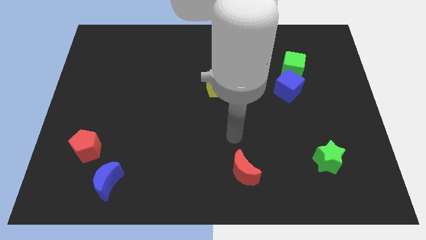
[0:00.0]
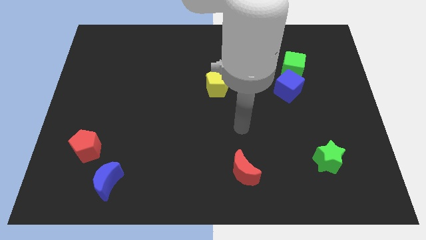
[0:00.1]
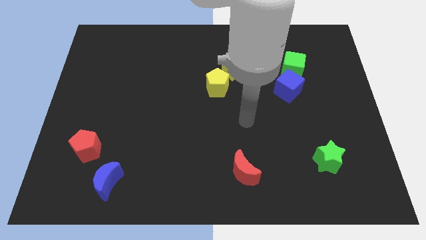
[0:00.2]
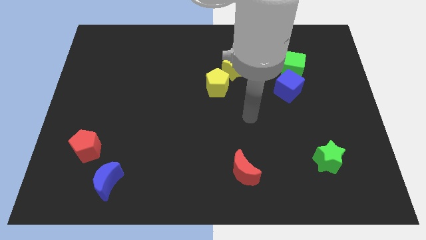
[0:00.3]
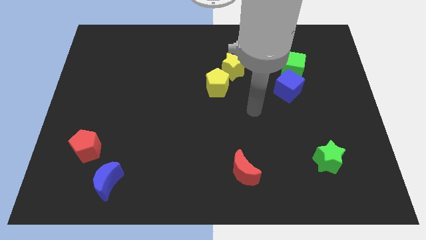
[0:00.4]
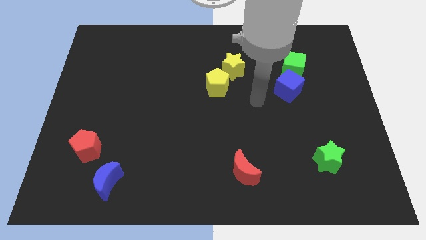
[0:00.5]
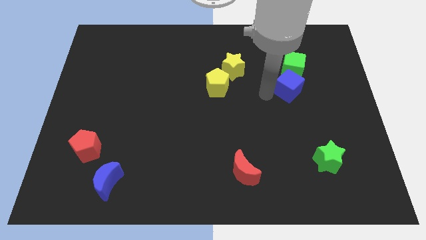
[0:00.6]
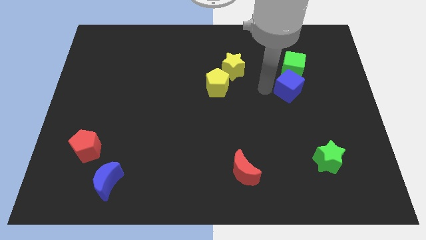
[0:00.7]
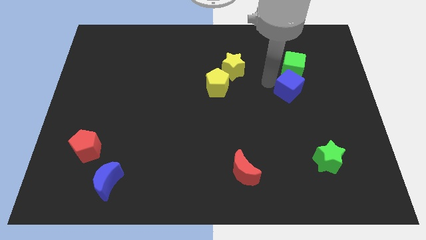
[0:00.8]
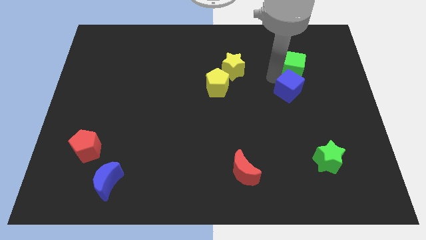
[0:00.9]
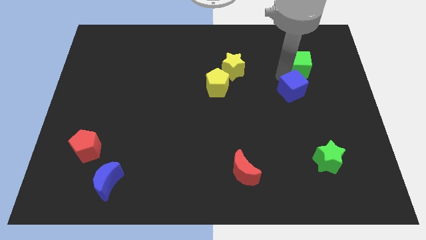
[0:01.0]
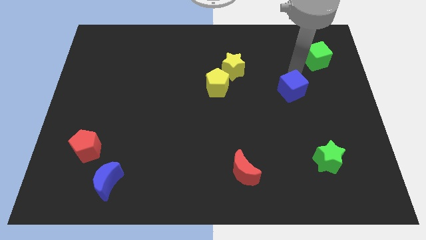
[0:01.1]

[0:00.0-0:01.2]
separate the blue cube from the green cube

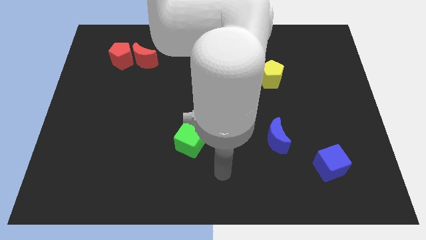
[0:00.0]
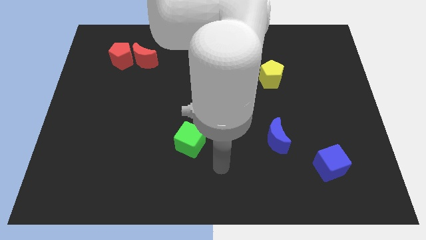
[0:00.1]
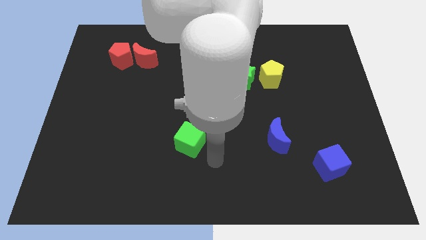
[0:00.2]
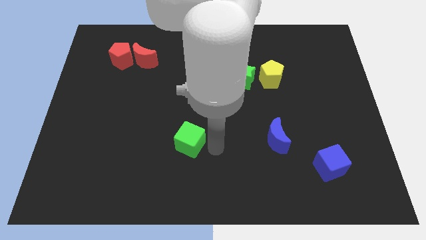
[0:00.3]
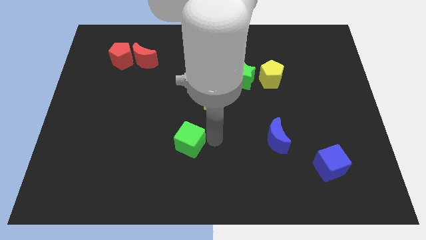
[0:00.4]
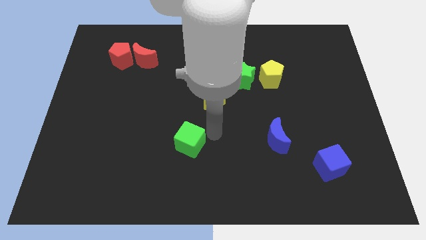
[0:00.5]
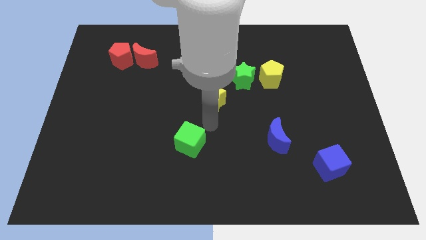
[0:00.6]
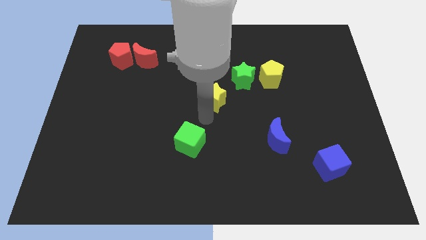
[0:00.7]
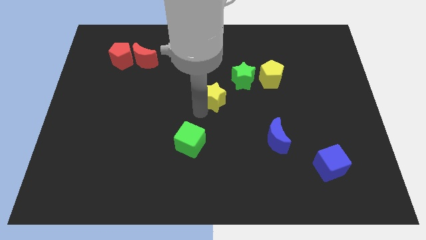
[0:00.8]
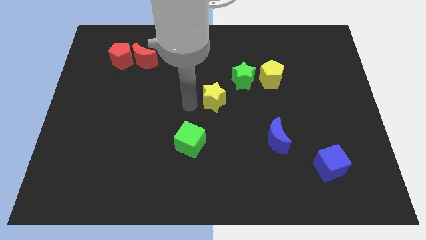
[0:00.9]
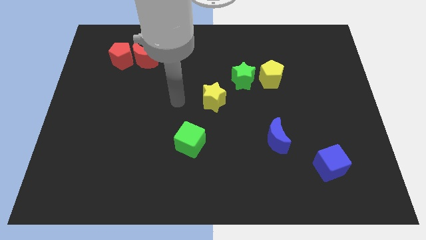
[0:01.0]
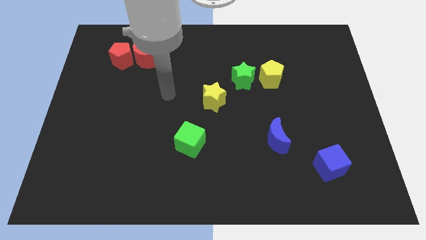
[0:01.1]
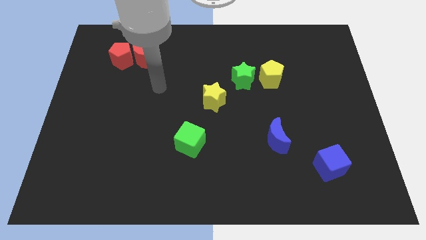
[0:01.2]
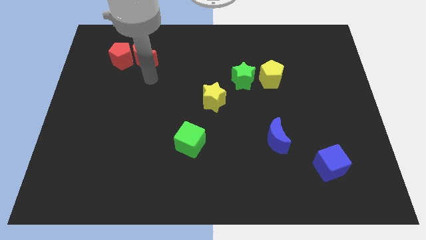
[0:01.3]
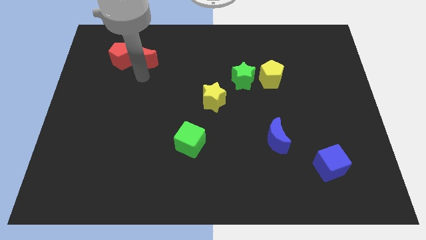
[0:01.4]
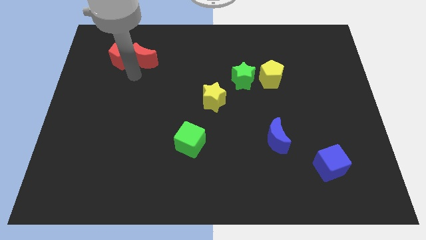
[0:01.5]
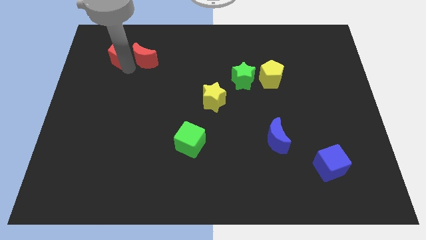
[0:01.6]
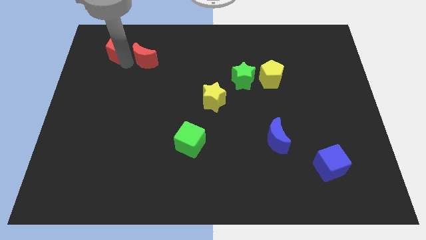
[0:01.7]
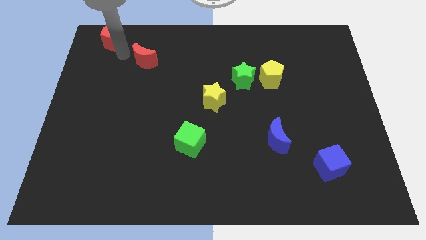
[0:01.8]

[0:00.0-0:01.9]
separate the red moon from the red pentagon

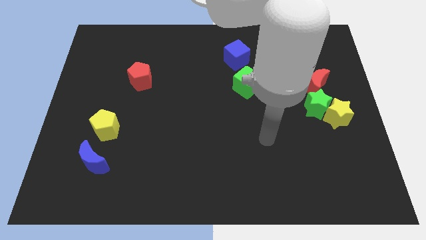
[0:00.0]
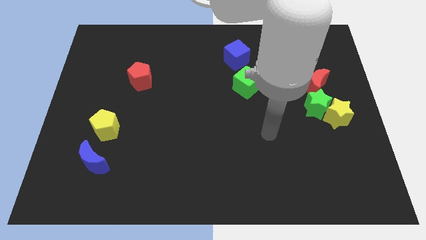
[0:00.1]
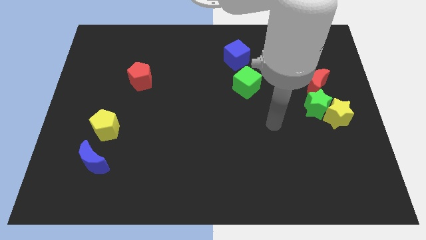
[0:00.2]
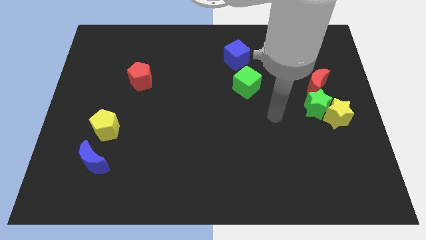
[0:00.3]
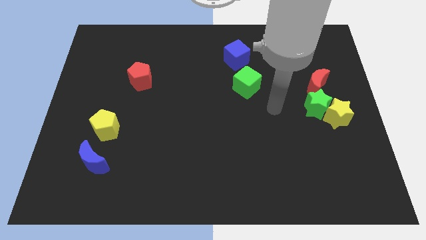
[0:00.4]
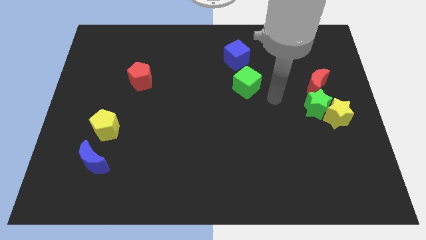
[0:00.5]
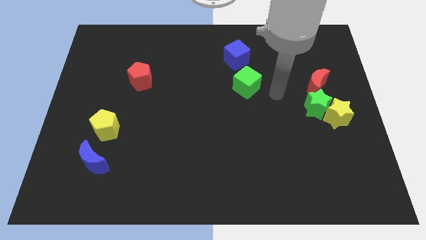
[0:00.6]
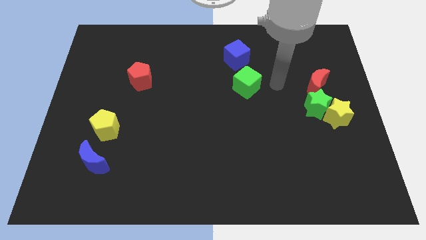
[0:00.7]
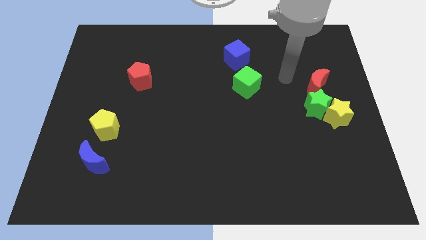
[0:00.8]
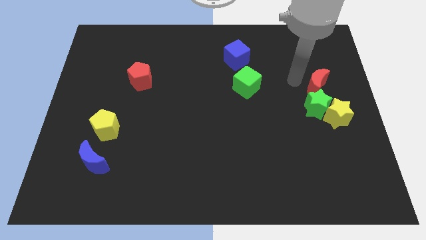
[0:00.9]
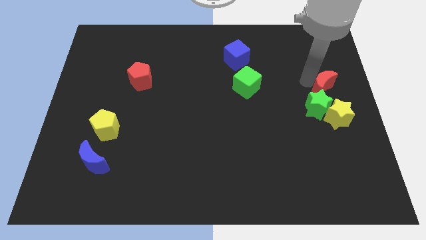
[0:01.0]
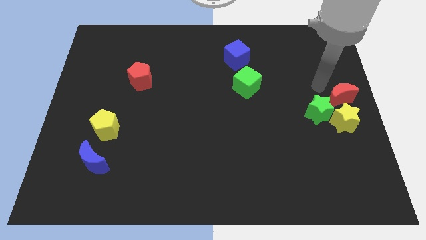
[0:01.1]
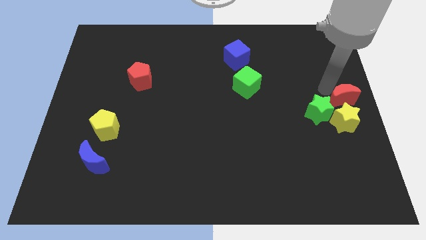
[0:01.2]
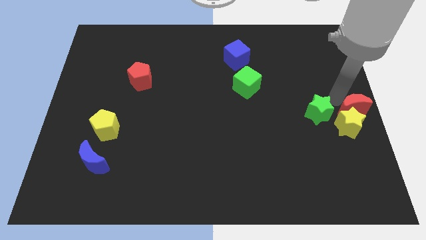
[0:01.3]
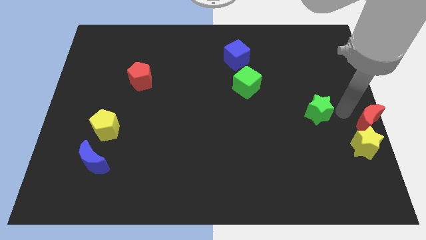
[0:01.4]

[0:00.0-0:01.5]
separate the green star from the yellow star and red moon

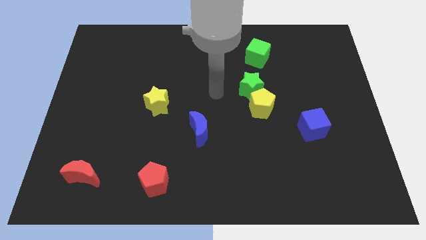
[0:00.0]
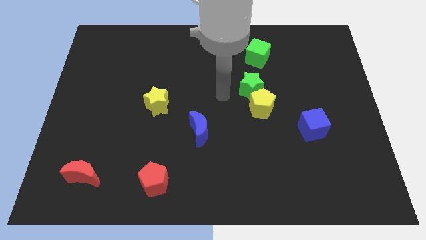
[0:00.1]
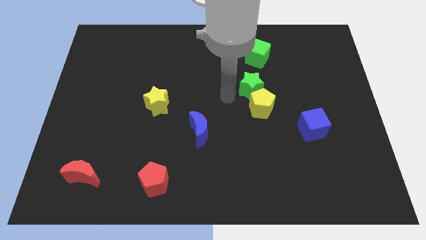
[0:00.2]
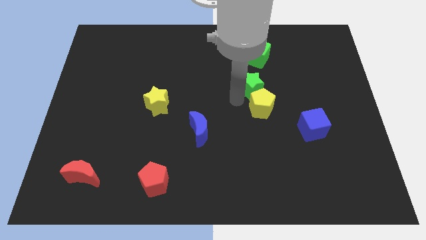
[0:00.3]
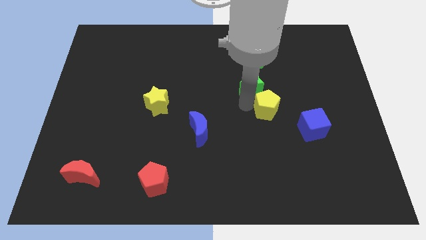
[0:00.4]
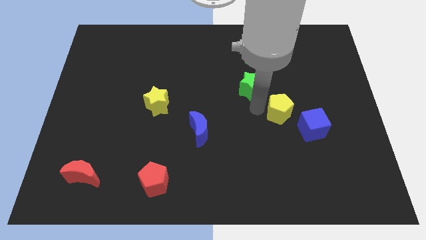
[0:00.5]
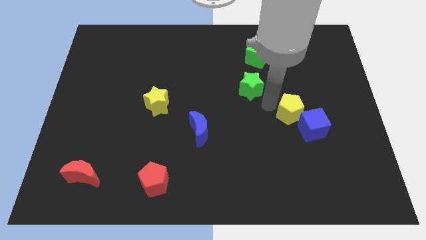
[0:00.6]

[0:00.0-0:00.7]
move the green star away from the yellow pentagon

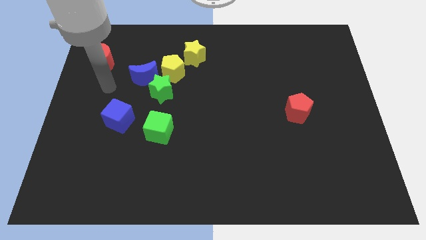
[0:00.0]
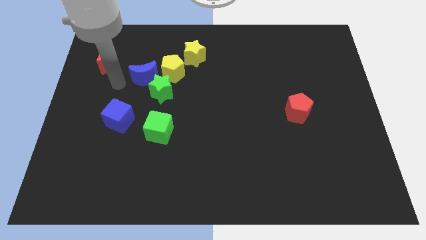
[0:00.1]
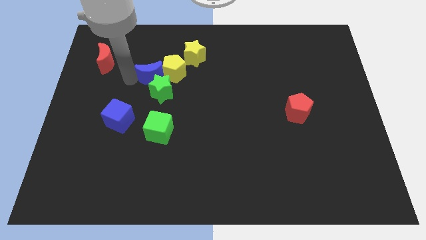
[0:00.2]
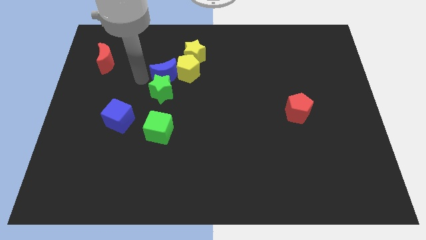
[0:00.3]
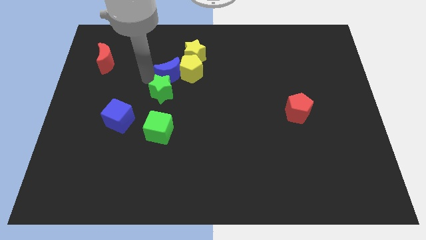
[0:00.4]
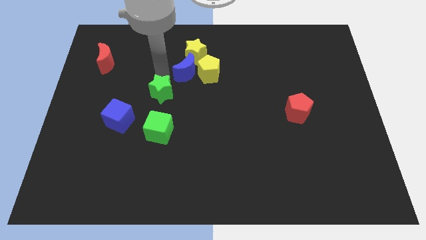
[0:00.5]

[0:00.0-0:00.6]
pull the green star apart from the blue moon and yellow pentagon

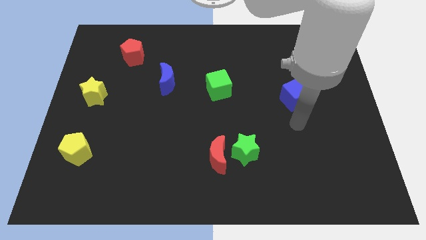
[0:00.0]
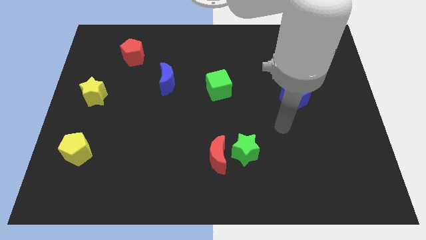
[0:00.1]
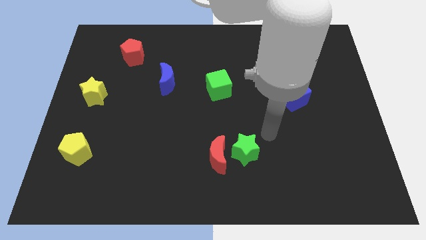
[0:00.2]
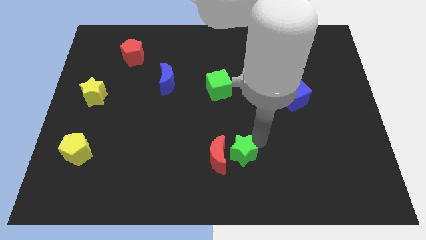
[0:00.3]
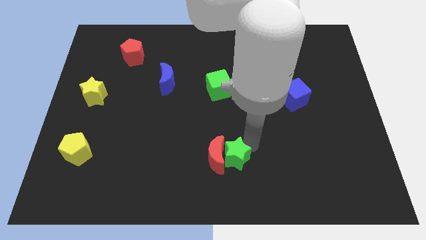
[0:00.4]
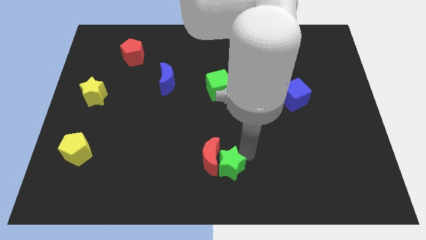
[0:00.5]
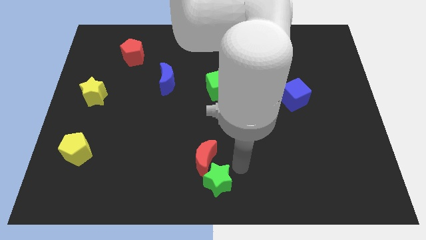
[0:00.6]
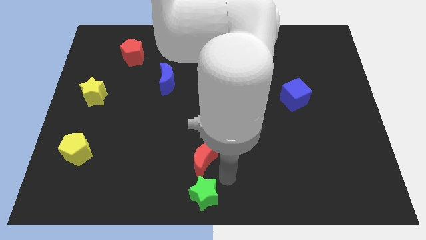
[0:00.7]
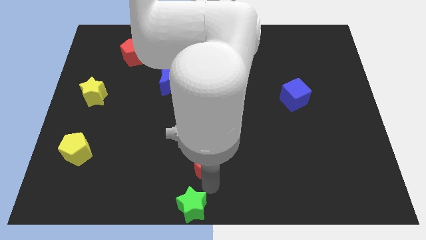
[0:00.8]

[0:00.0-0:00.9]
pull the red moon apart from the green star

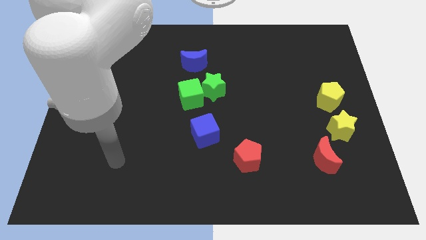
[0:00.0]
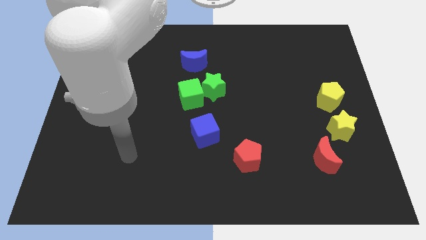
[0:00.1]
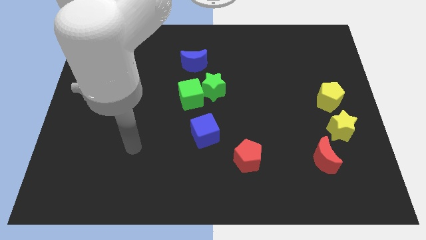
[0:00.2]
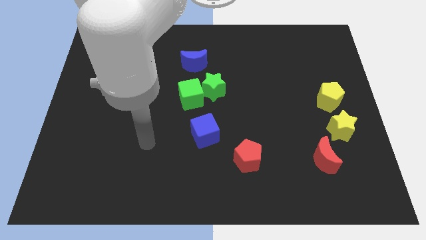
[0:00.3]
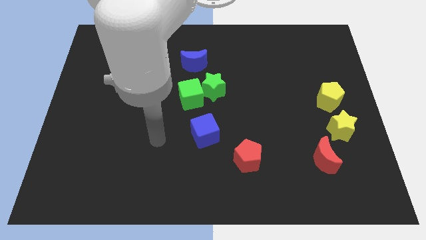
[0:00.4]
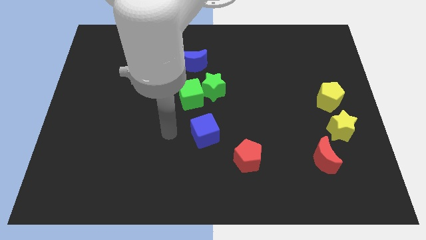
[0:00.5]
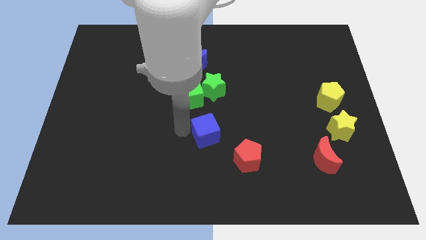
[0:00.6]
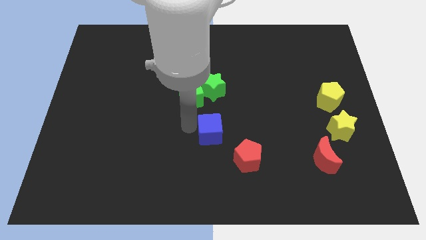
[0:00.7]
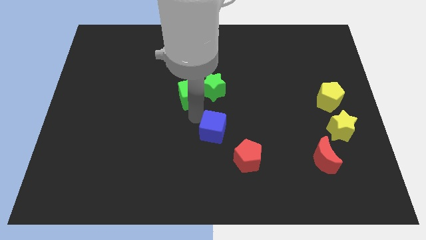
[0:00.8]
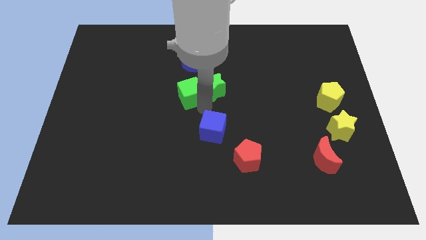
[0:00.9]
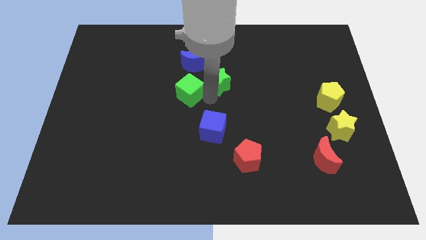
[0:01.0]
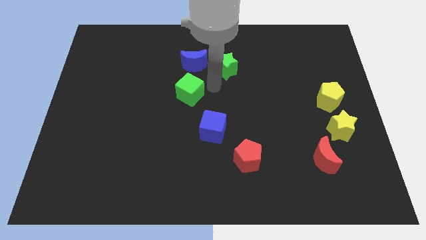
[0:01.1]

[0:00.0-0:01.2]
separate the green cube from the green star

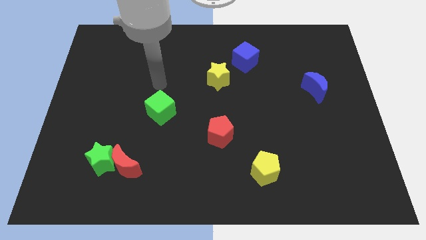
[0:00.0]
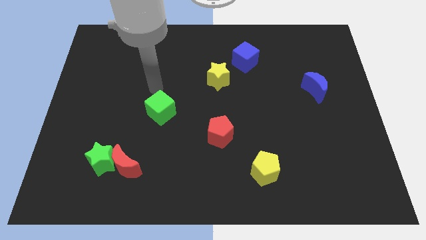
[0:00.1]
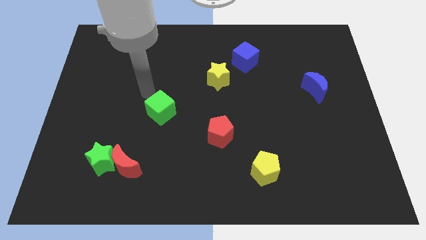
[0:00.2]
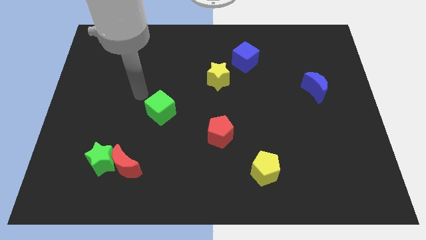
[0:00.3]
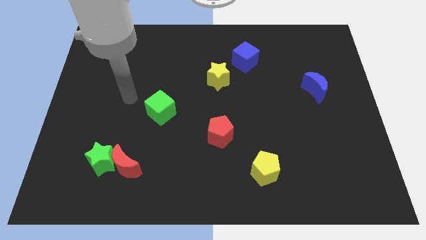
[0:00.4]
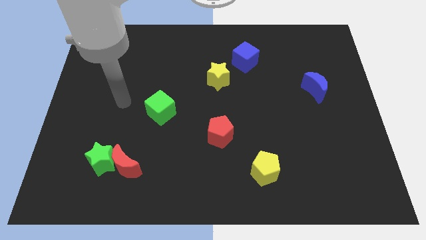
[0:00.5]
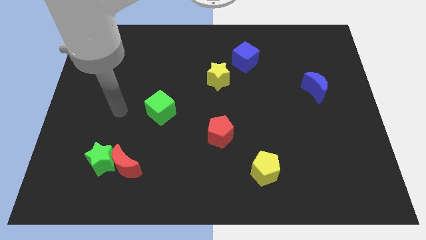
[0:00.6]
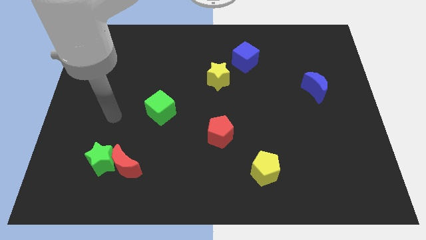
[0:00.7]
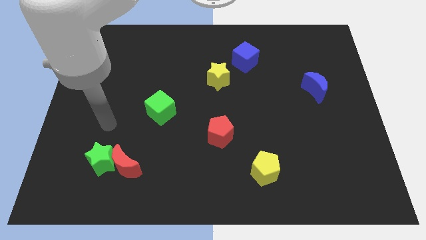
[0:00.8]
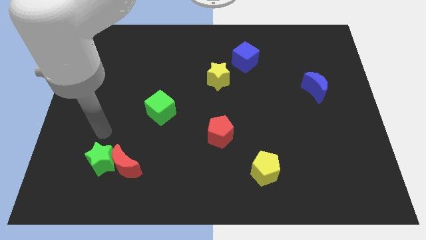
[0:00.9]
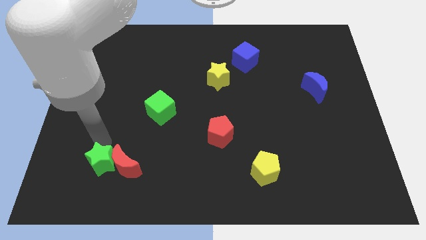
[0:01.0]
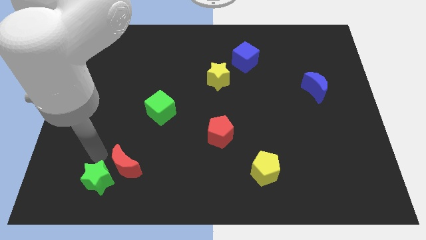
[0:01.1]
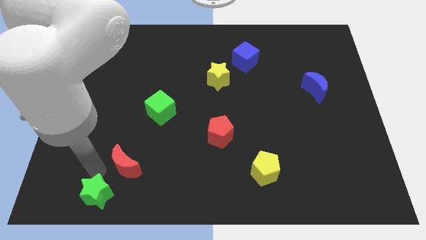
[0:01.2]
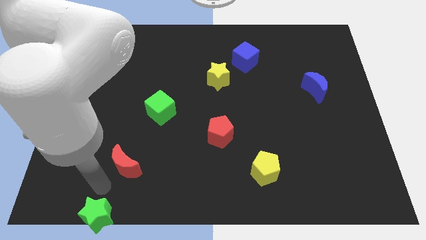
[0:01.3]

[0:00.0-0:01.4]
move the red moon away from the green star
